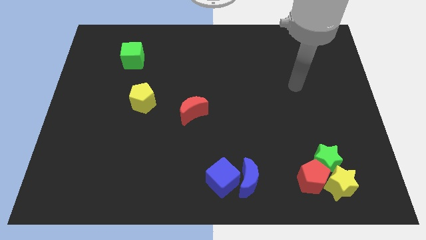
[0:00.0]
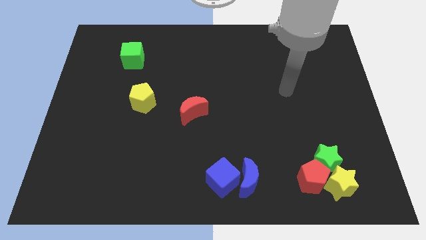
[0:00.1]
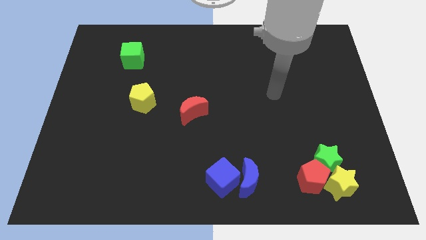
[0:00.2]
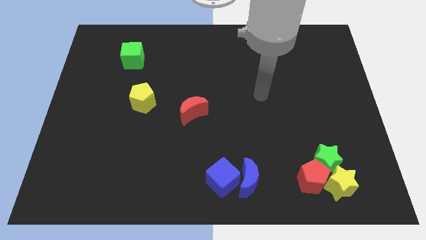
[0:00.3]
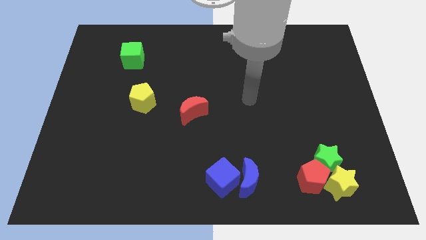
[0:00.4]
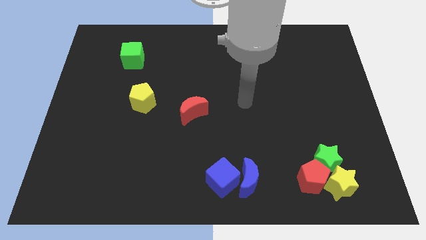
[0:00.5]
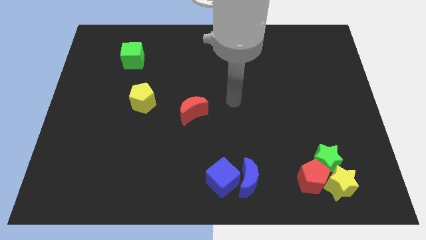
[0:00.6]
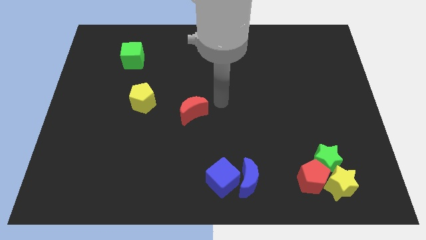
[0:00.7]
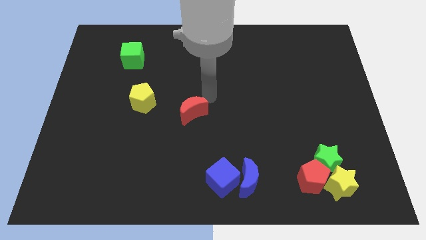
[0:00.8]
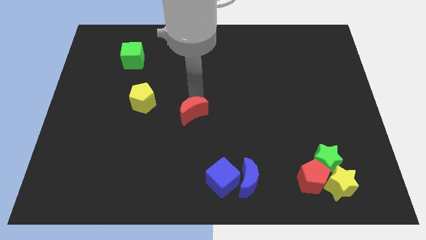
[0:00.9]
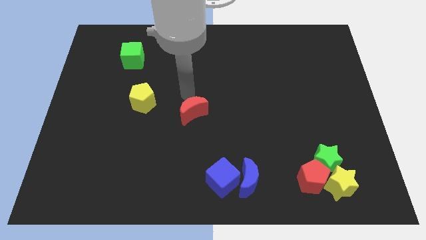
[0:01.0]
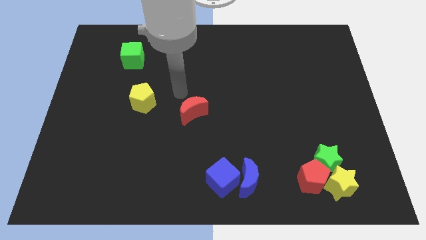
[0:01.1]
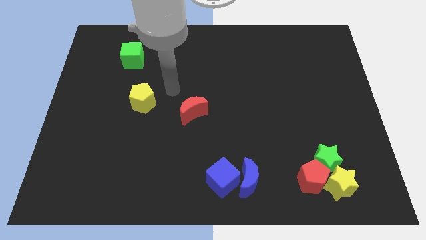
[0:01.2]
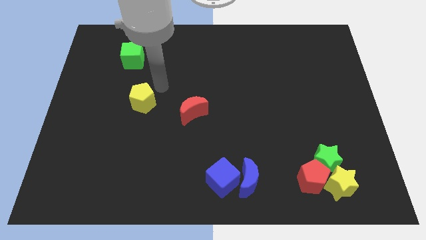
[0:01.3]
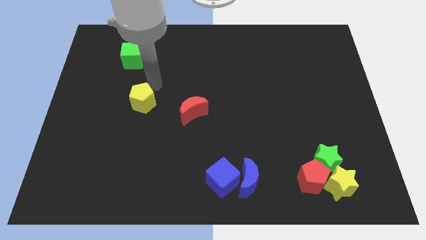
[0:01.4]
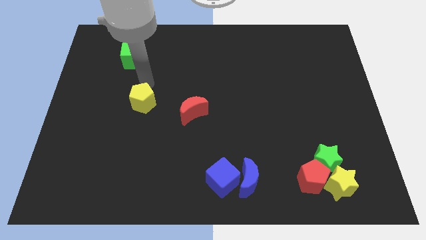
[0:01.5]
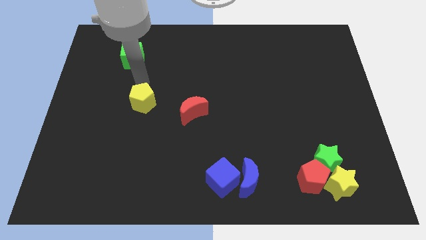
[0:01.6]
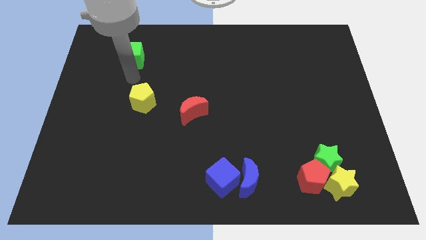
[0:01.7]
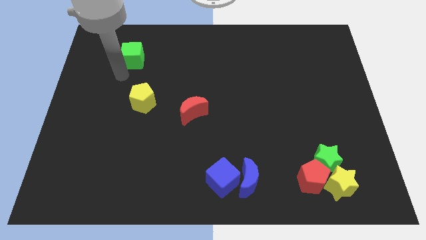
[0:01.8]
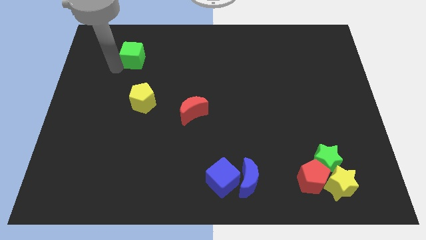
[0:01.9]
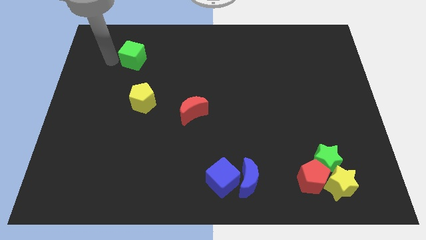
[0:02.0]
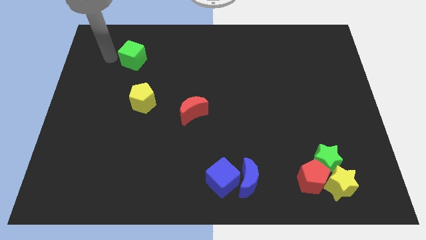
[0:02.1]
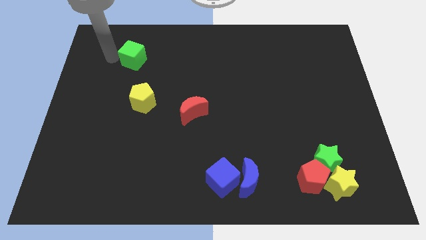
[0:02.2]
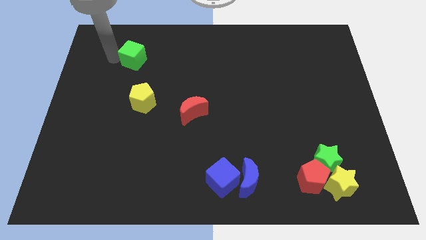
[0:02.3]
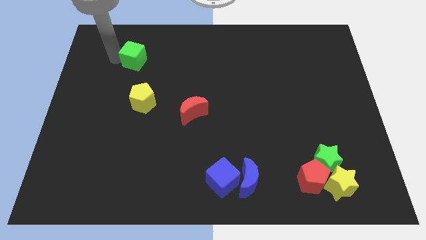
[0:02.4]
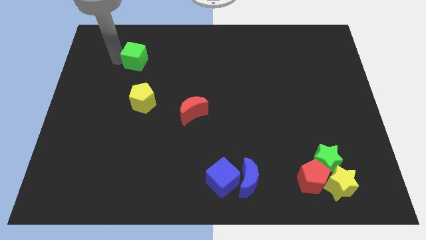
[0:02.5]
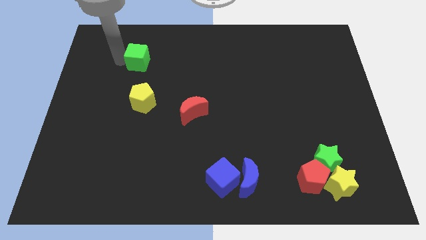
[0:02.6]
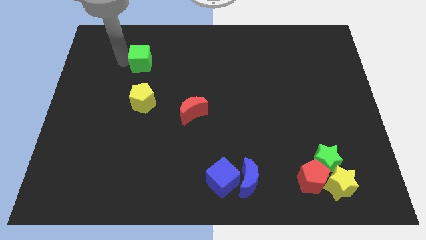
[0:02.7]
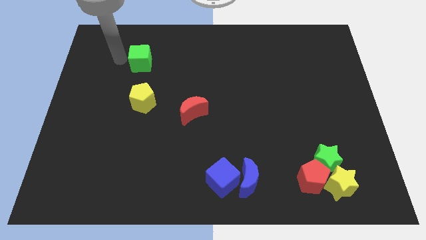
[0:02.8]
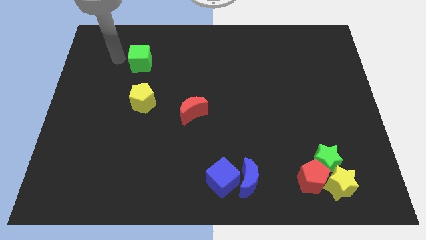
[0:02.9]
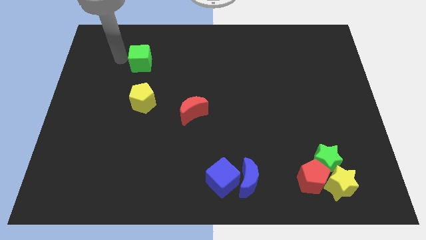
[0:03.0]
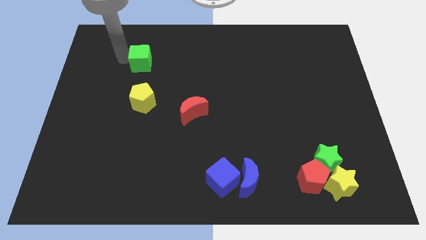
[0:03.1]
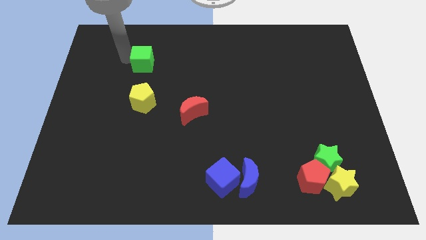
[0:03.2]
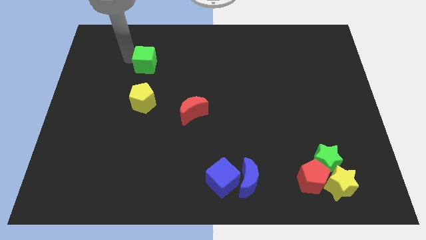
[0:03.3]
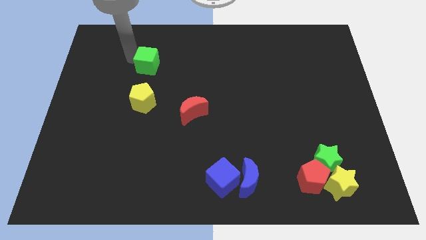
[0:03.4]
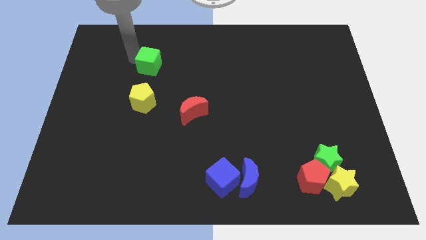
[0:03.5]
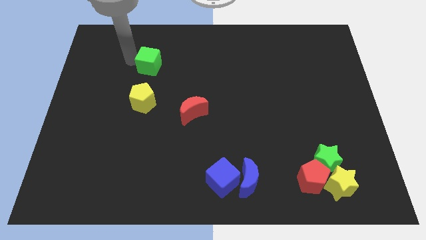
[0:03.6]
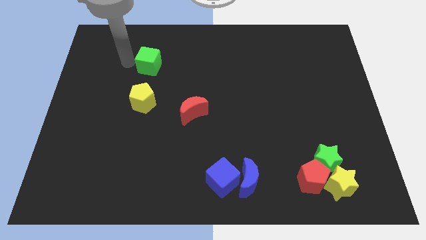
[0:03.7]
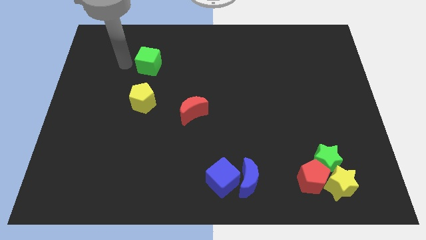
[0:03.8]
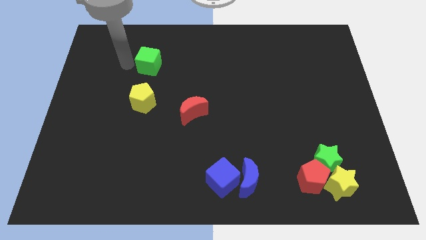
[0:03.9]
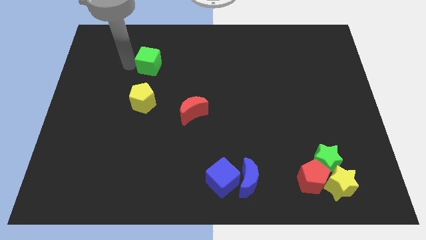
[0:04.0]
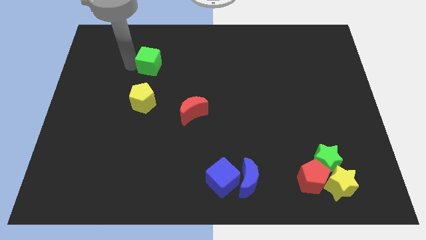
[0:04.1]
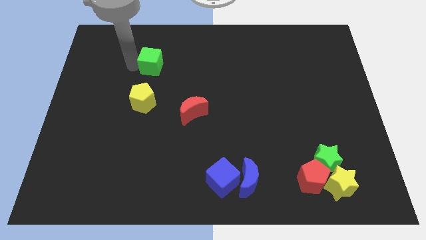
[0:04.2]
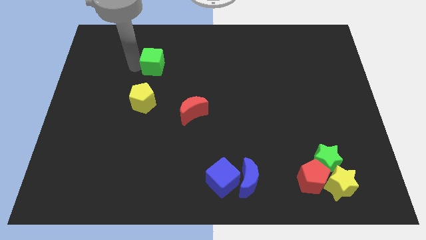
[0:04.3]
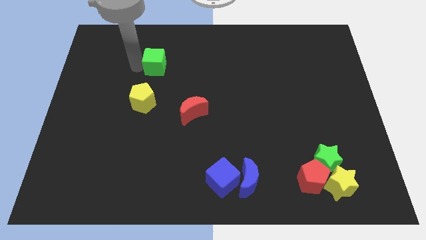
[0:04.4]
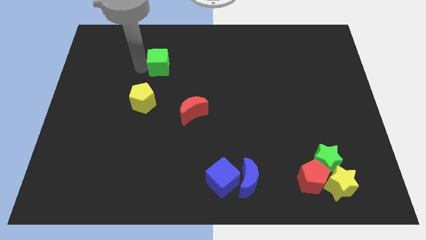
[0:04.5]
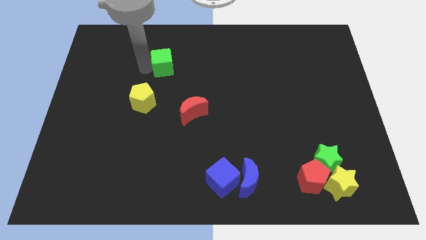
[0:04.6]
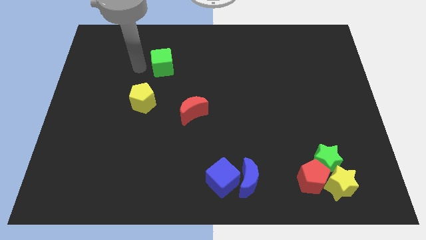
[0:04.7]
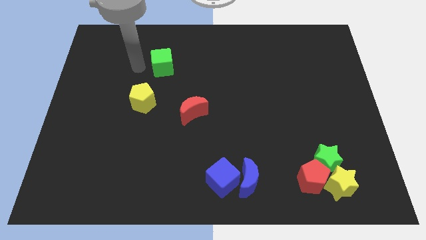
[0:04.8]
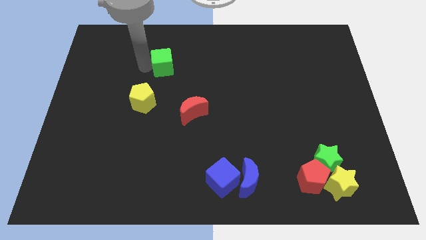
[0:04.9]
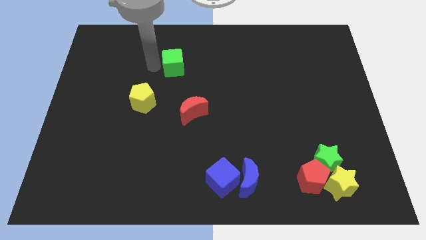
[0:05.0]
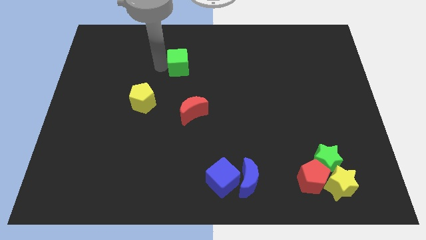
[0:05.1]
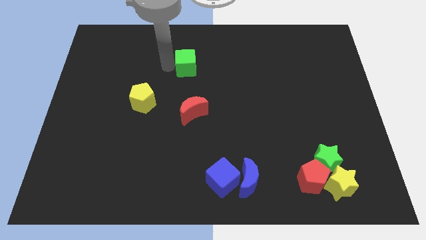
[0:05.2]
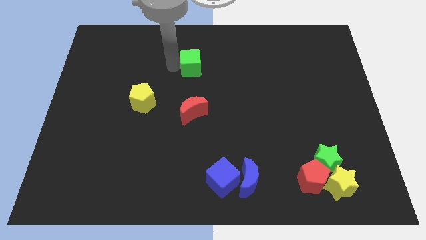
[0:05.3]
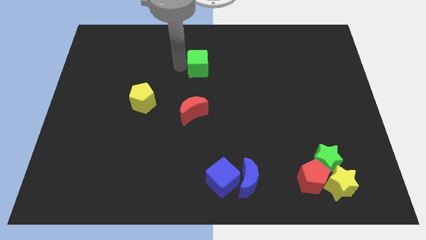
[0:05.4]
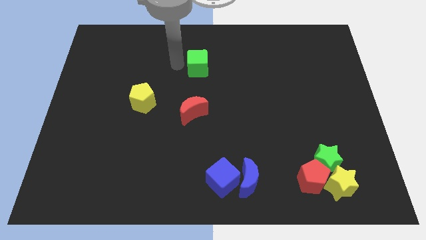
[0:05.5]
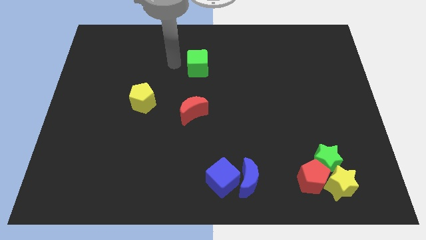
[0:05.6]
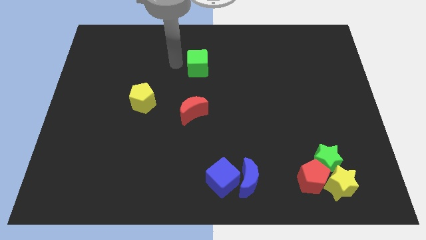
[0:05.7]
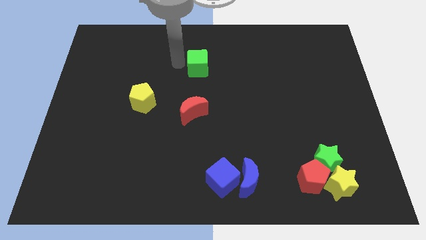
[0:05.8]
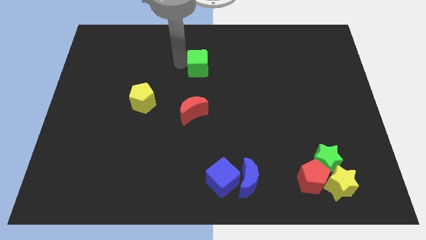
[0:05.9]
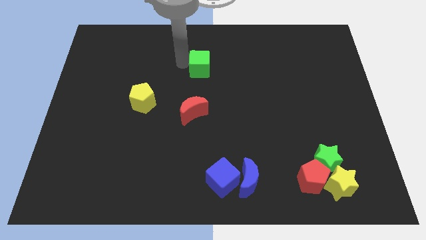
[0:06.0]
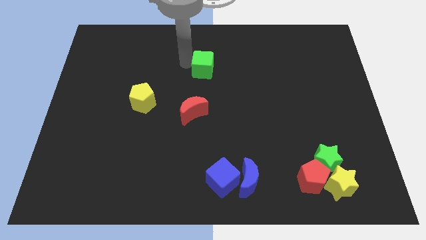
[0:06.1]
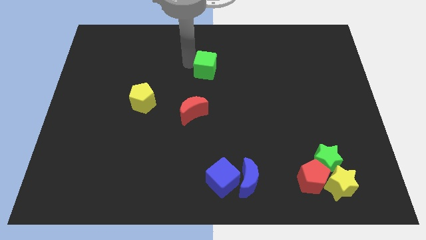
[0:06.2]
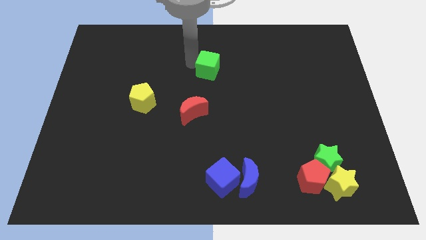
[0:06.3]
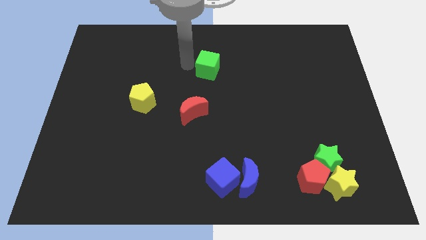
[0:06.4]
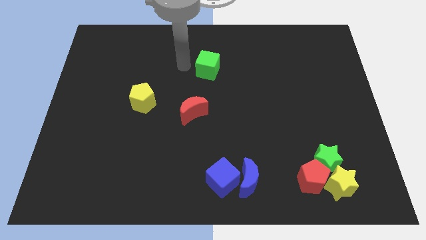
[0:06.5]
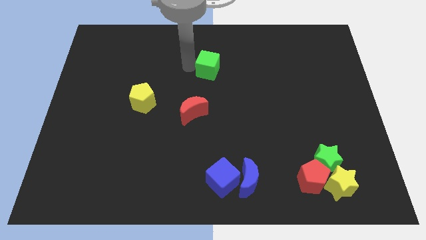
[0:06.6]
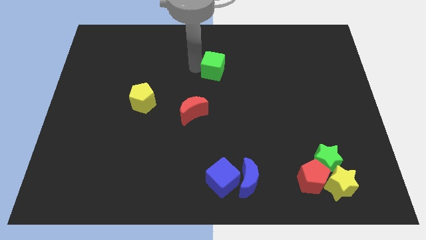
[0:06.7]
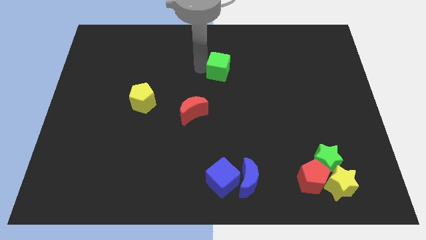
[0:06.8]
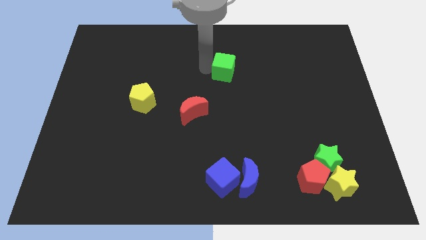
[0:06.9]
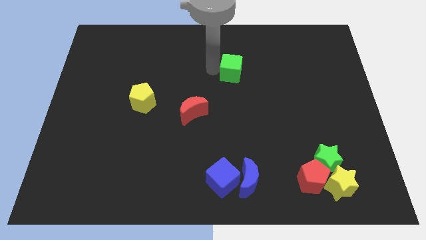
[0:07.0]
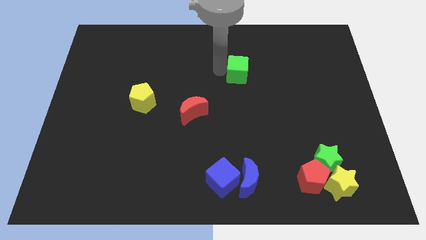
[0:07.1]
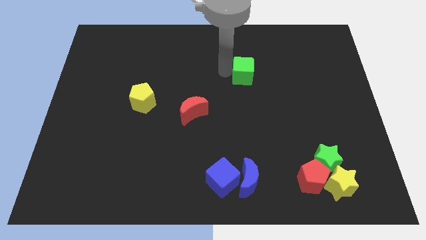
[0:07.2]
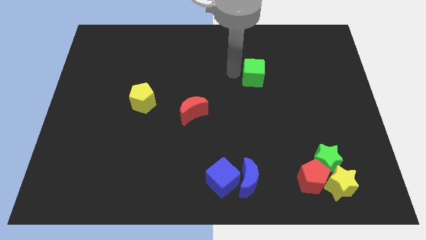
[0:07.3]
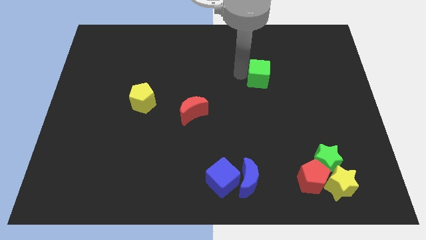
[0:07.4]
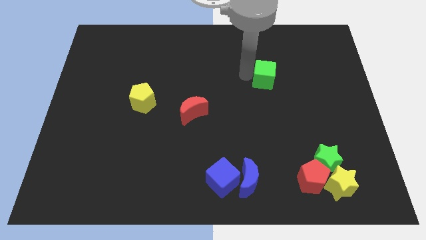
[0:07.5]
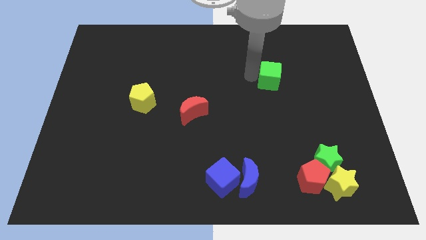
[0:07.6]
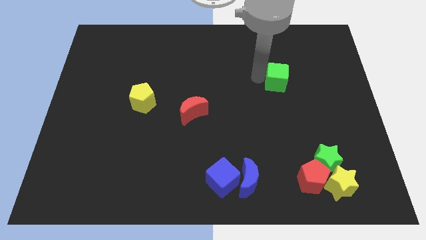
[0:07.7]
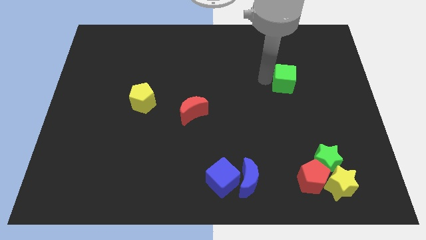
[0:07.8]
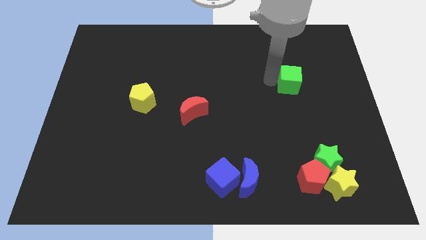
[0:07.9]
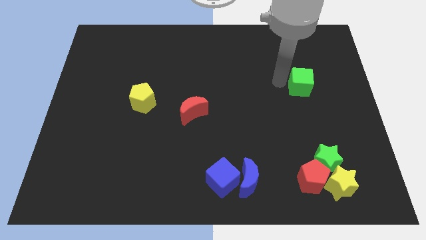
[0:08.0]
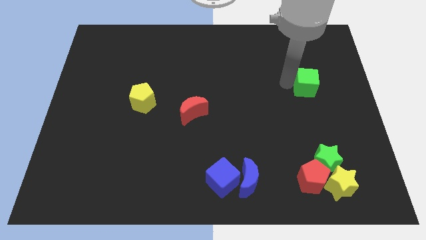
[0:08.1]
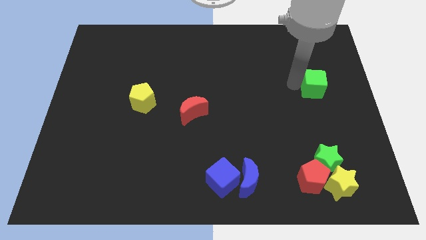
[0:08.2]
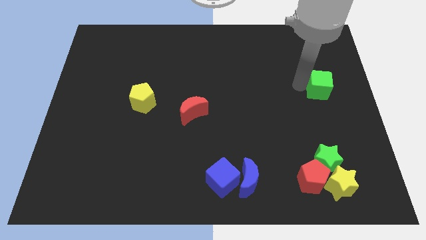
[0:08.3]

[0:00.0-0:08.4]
move the green cube to the center right
